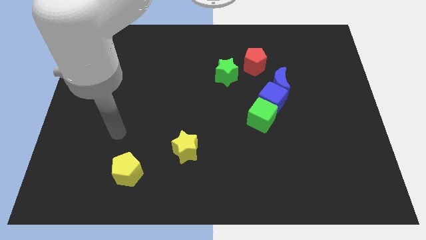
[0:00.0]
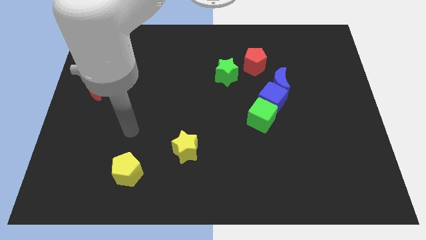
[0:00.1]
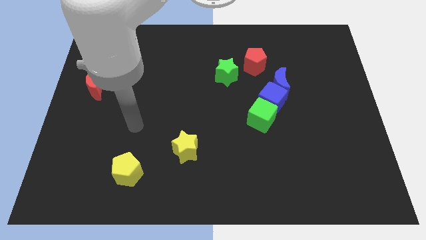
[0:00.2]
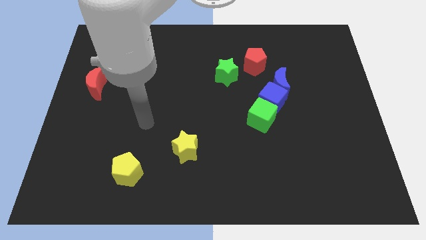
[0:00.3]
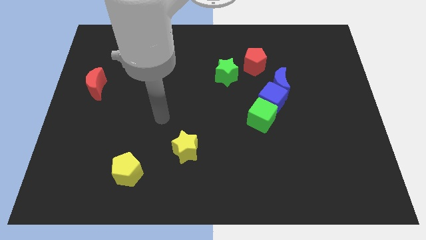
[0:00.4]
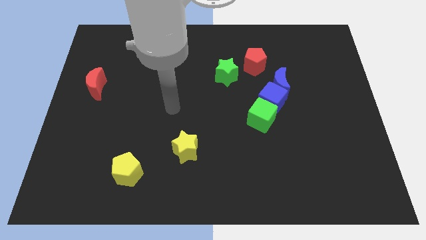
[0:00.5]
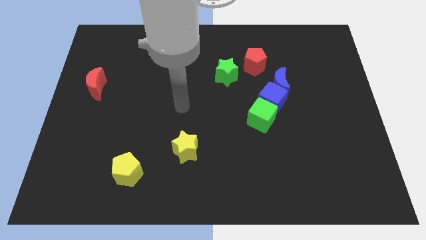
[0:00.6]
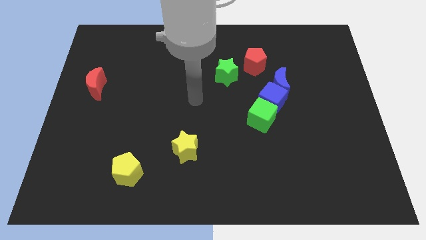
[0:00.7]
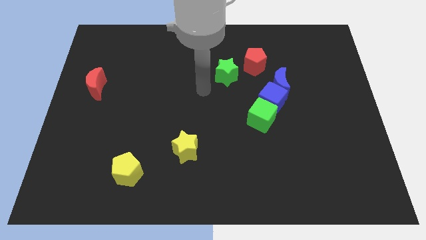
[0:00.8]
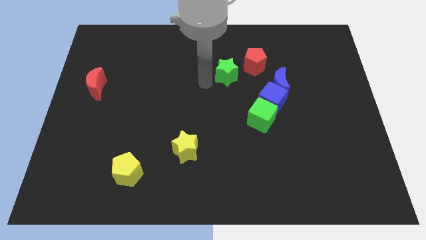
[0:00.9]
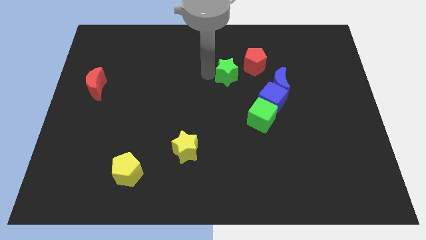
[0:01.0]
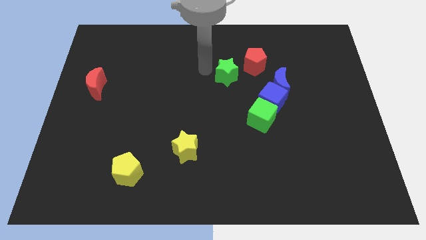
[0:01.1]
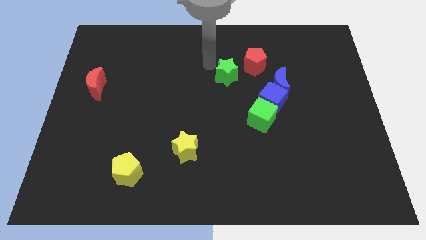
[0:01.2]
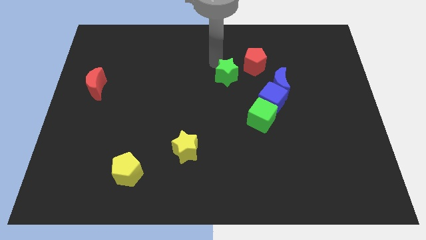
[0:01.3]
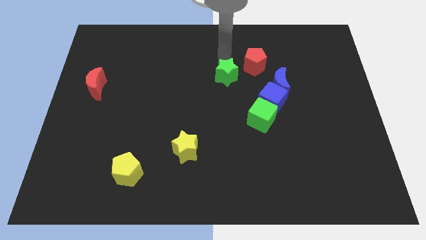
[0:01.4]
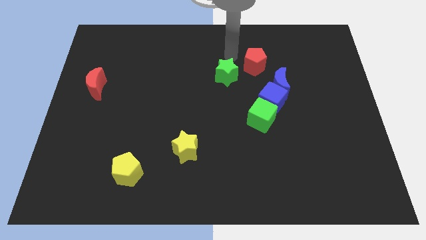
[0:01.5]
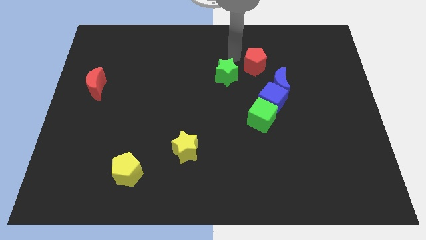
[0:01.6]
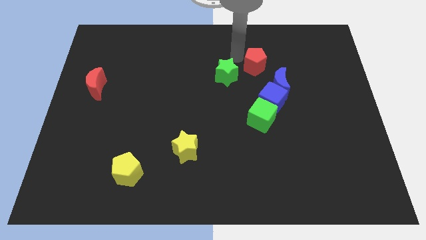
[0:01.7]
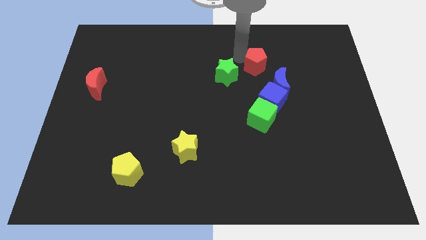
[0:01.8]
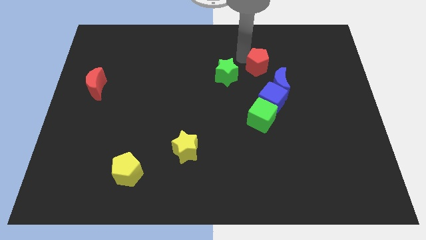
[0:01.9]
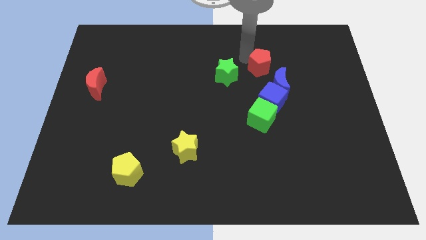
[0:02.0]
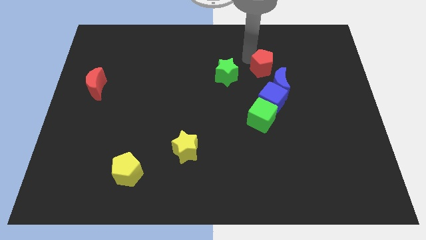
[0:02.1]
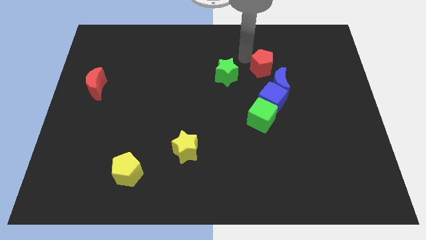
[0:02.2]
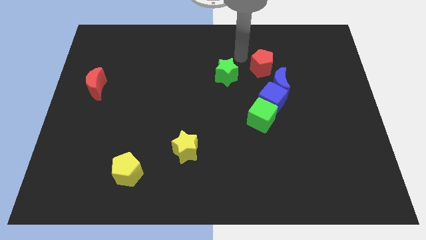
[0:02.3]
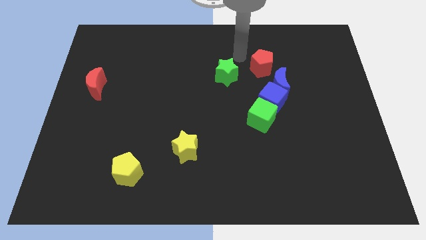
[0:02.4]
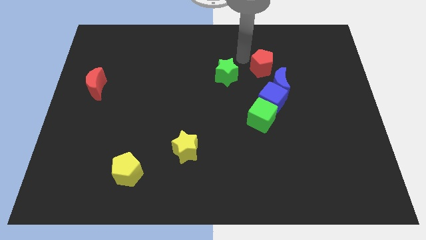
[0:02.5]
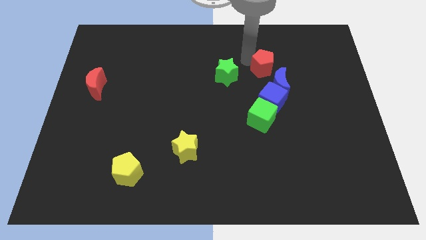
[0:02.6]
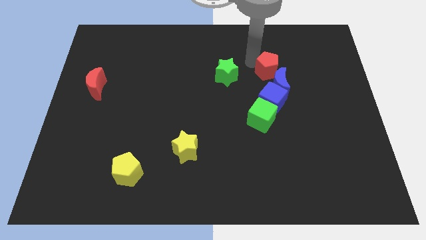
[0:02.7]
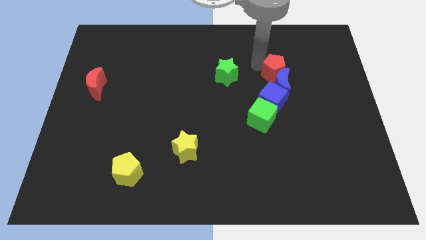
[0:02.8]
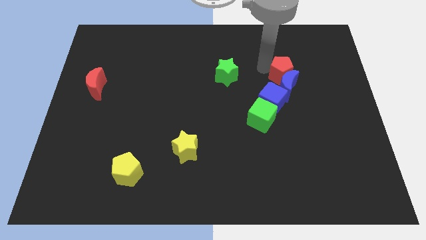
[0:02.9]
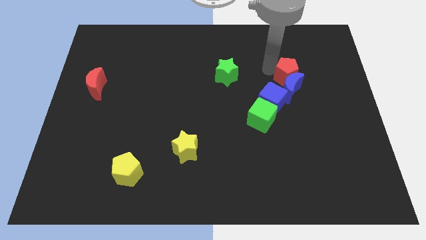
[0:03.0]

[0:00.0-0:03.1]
slightly push the red pentagon diagonally downwards and right

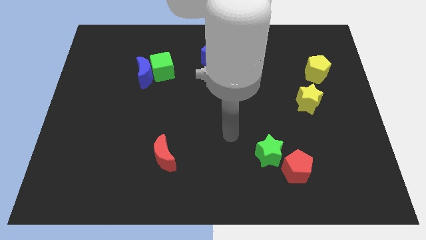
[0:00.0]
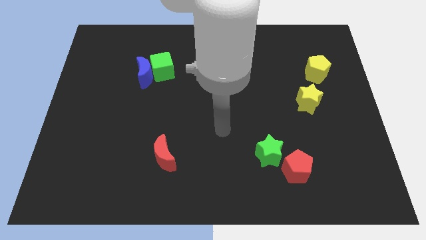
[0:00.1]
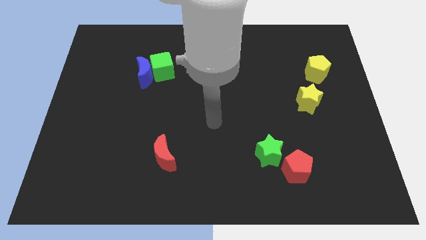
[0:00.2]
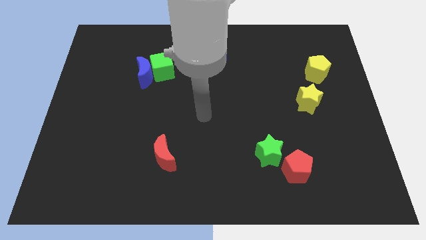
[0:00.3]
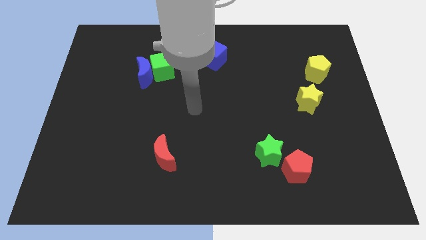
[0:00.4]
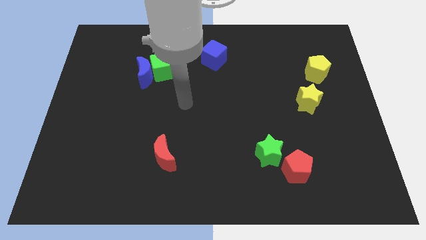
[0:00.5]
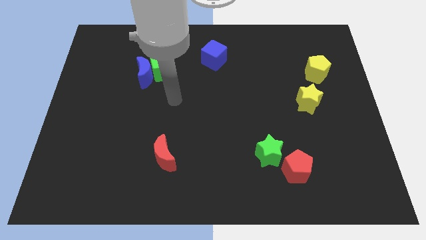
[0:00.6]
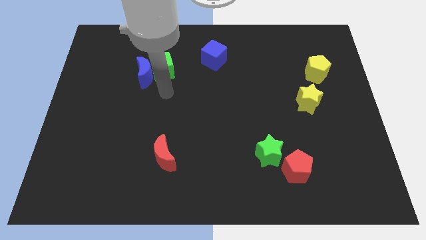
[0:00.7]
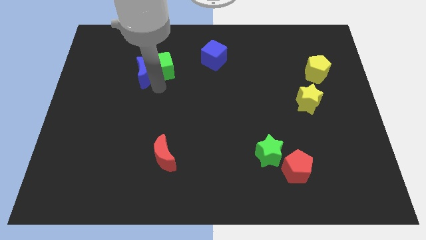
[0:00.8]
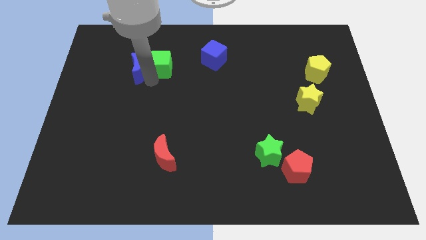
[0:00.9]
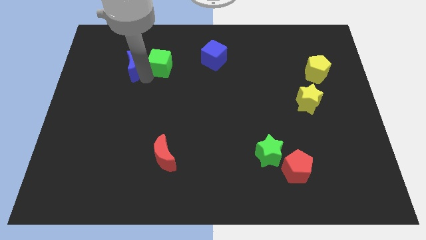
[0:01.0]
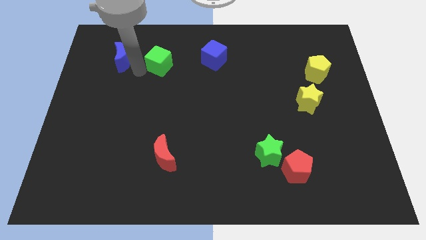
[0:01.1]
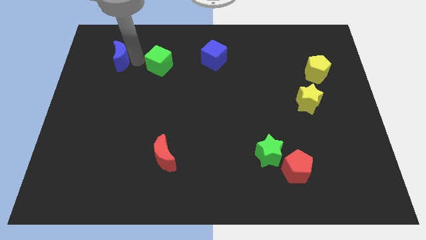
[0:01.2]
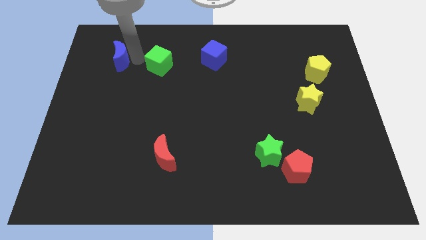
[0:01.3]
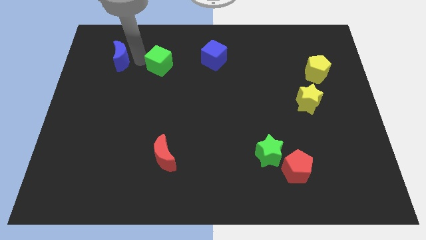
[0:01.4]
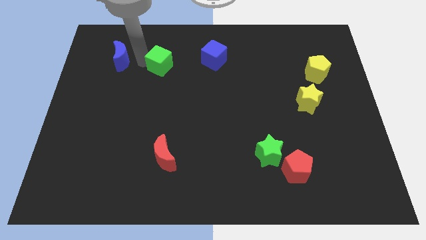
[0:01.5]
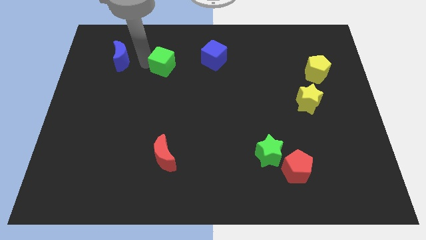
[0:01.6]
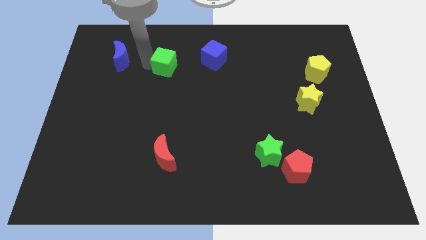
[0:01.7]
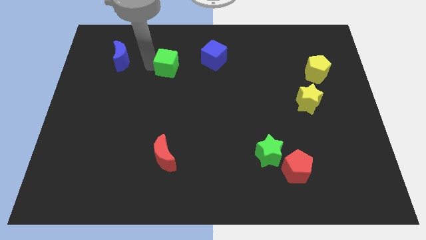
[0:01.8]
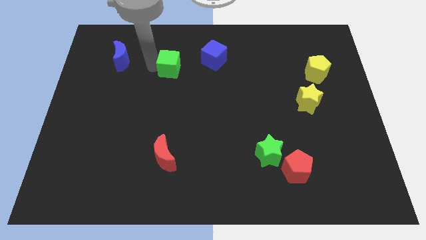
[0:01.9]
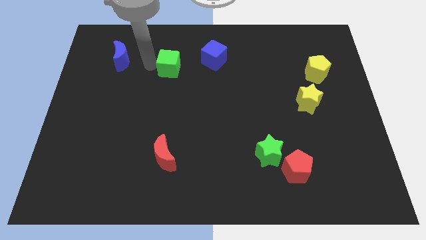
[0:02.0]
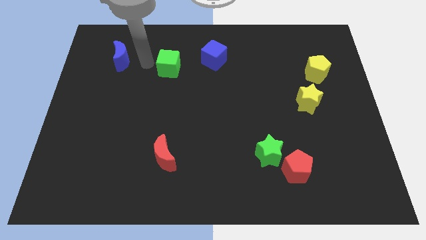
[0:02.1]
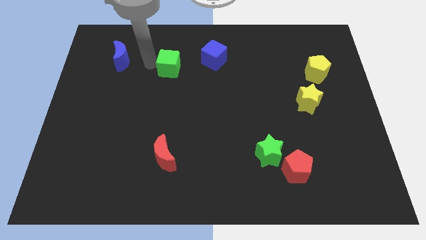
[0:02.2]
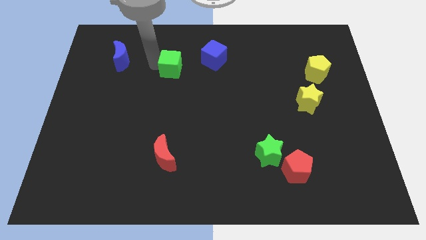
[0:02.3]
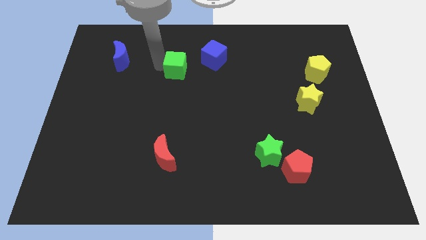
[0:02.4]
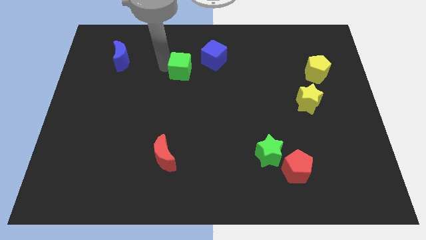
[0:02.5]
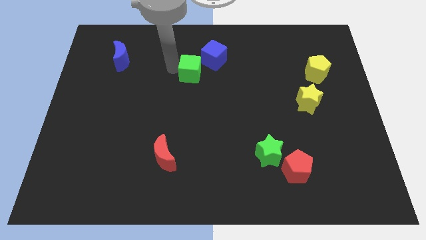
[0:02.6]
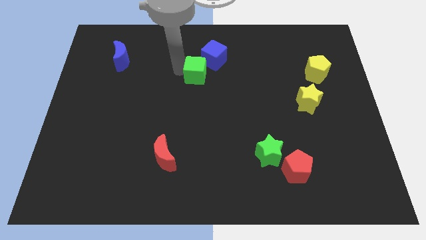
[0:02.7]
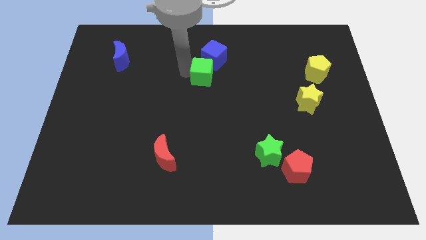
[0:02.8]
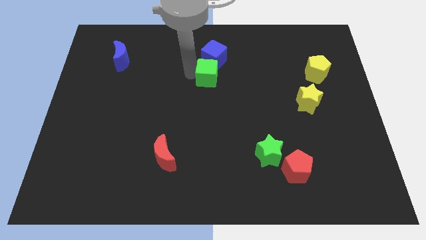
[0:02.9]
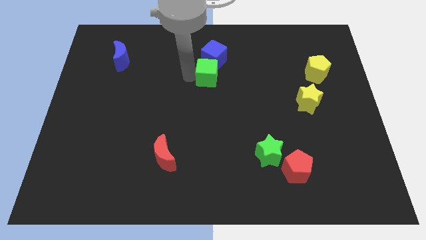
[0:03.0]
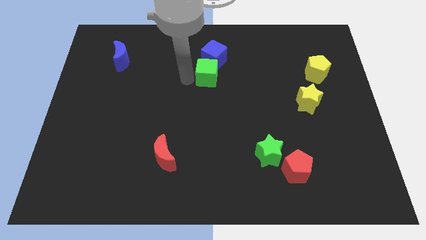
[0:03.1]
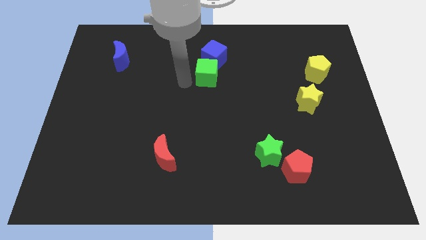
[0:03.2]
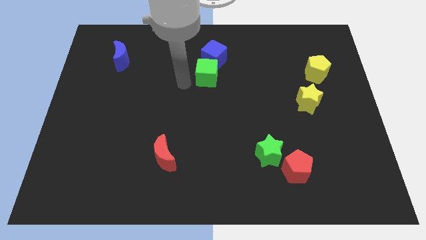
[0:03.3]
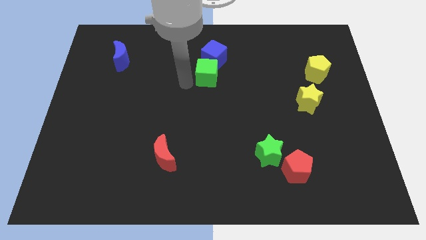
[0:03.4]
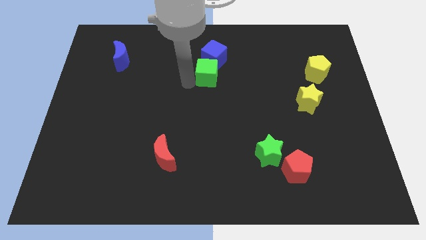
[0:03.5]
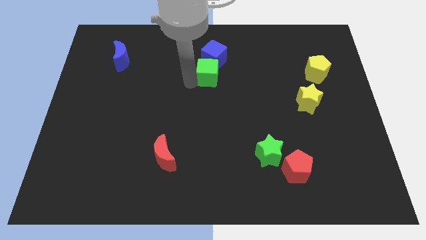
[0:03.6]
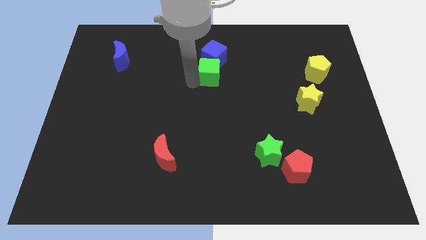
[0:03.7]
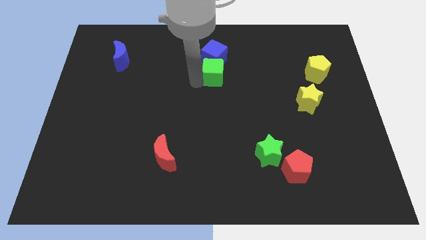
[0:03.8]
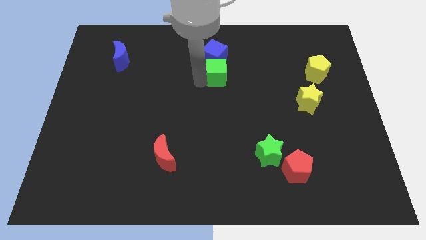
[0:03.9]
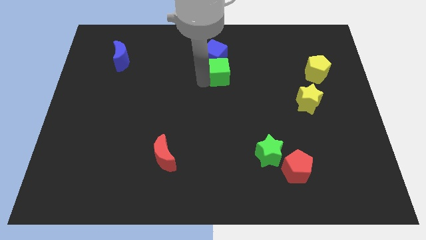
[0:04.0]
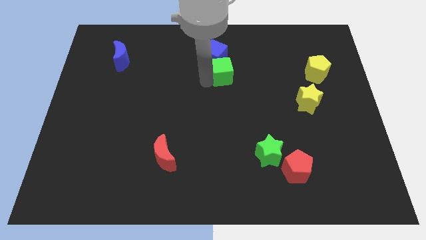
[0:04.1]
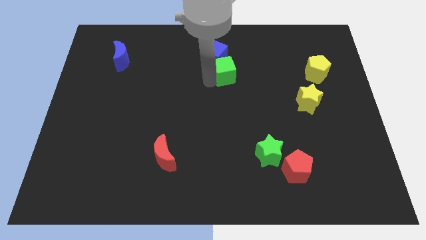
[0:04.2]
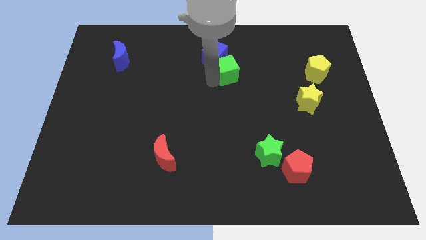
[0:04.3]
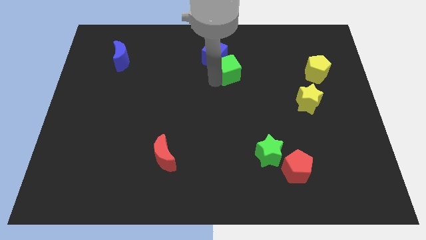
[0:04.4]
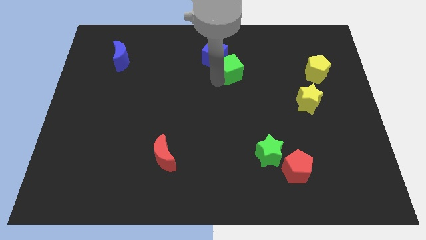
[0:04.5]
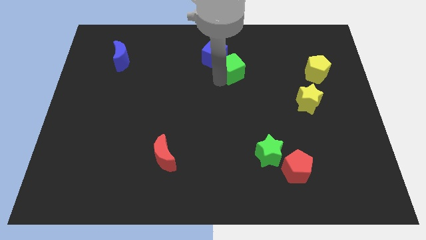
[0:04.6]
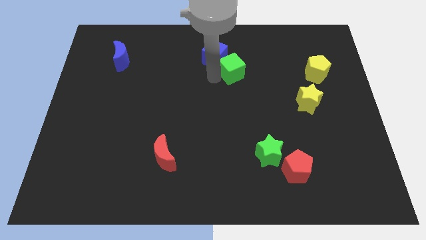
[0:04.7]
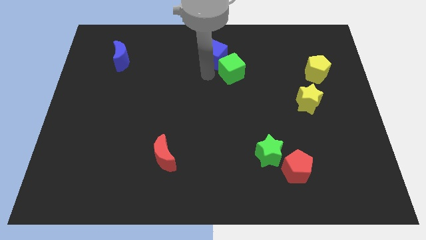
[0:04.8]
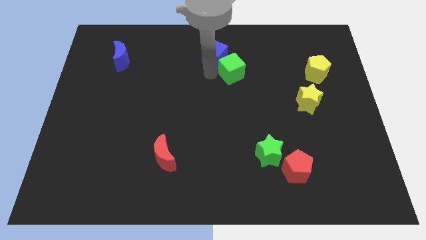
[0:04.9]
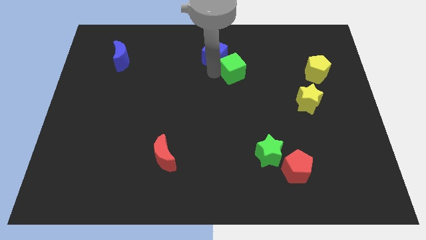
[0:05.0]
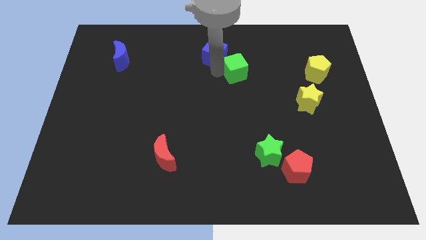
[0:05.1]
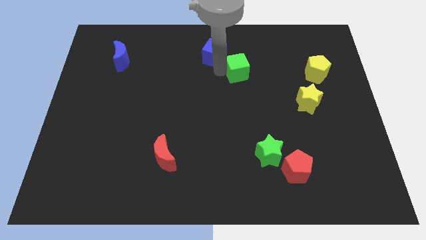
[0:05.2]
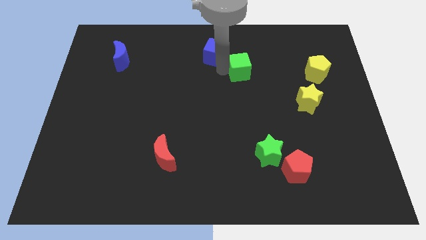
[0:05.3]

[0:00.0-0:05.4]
move the green cube right
